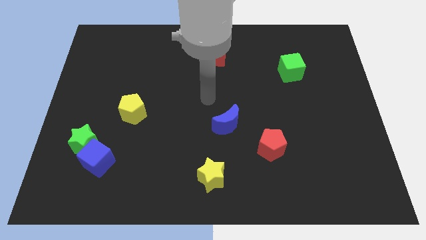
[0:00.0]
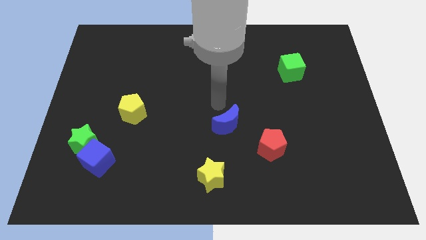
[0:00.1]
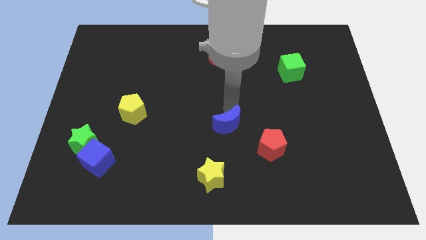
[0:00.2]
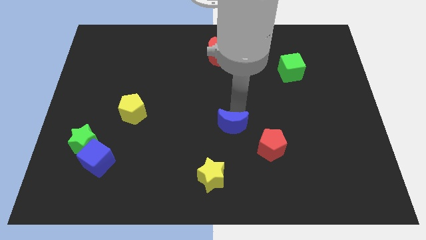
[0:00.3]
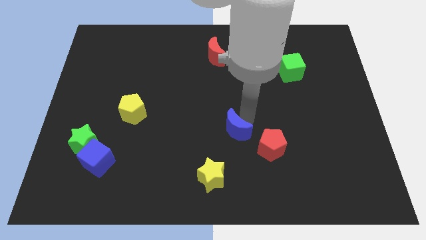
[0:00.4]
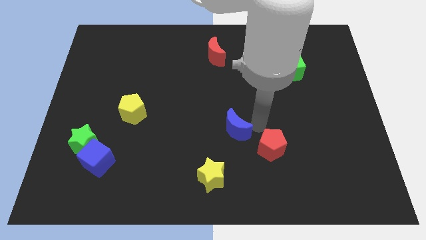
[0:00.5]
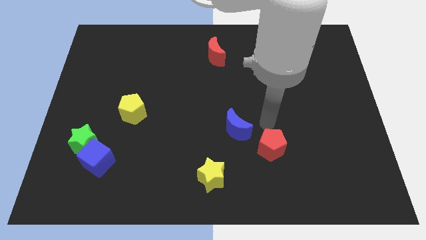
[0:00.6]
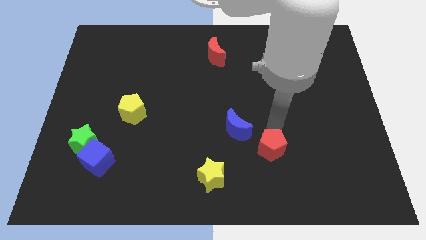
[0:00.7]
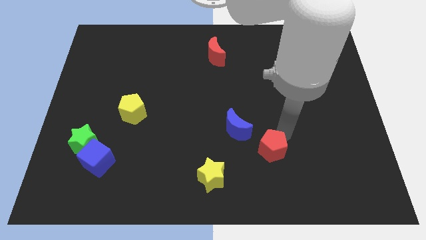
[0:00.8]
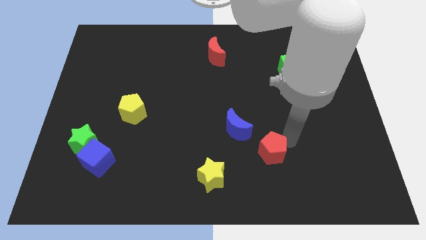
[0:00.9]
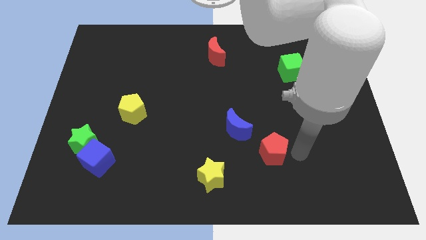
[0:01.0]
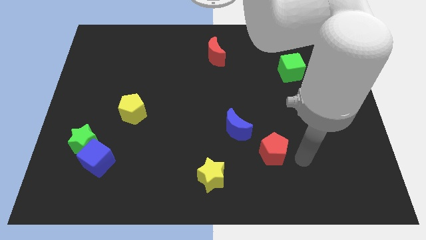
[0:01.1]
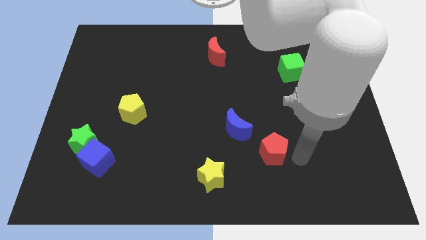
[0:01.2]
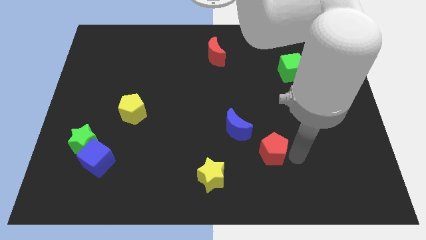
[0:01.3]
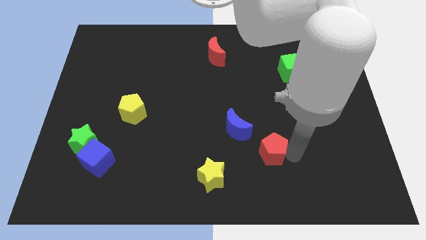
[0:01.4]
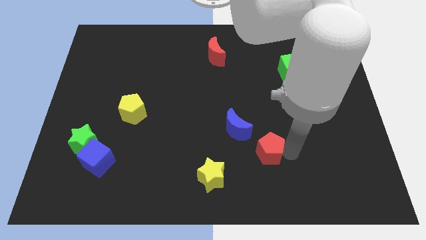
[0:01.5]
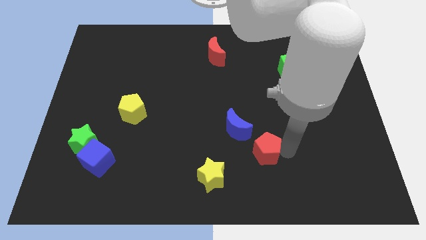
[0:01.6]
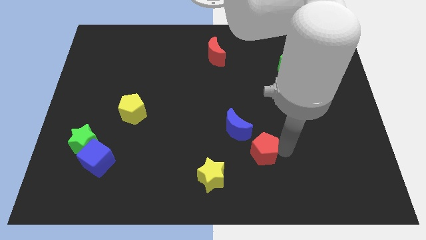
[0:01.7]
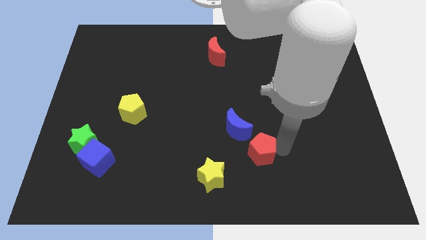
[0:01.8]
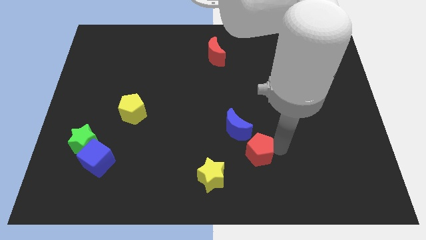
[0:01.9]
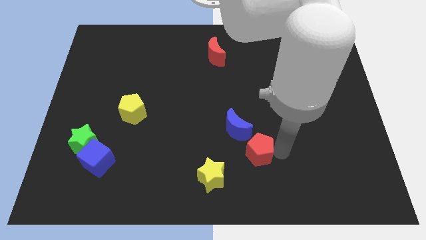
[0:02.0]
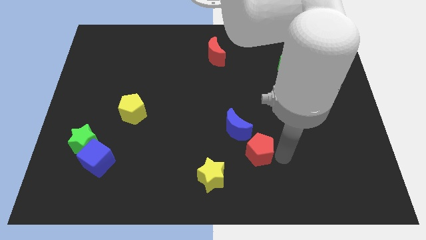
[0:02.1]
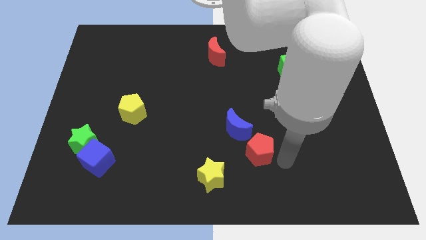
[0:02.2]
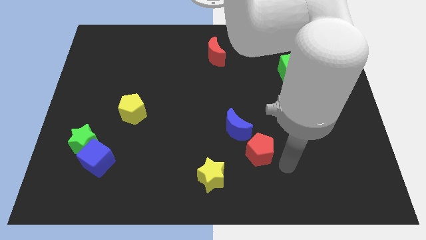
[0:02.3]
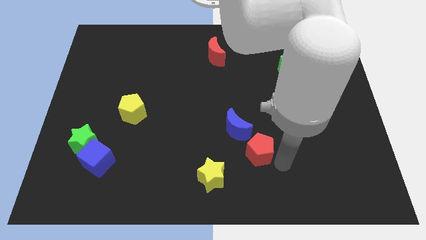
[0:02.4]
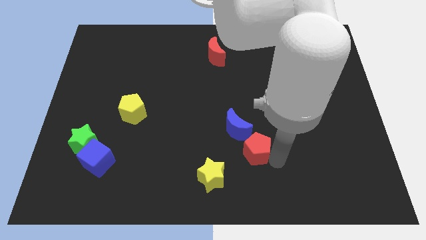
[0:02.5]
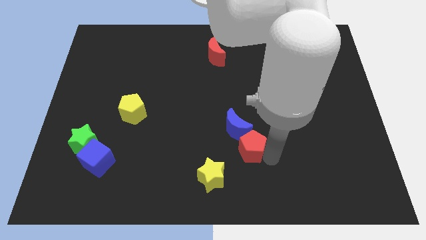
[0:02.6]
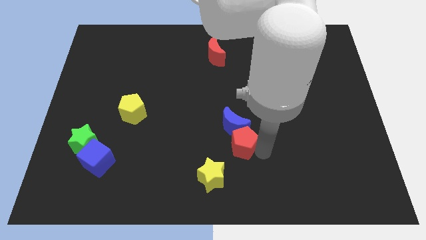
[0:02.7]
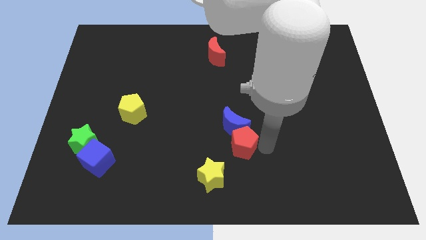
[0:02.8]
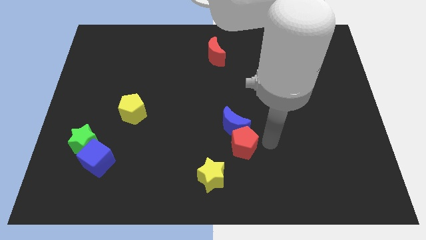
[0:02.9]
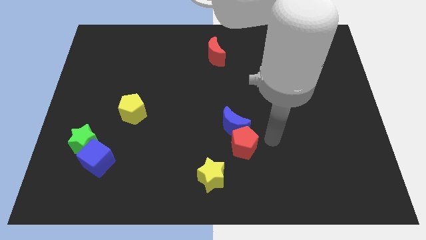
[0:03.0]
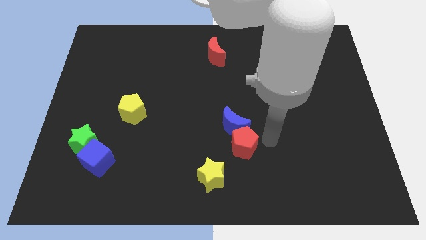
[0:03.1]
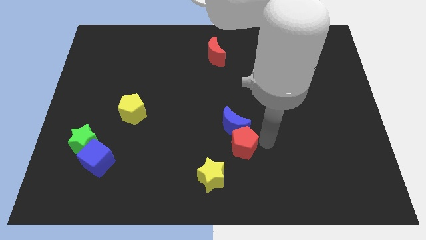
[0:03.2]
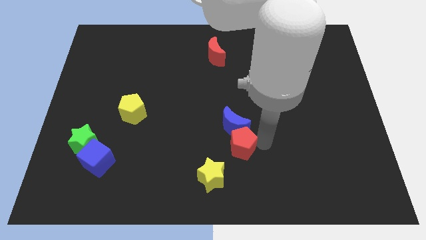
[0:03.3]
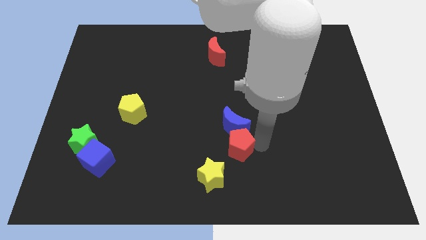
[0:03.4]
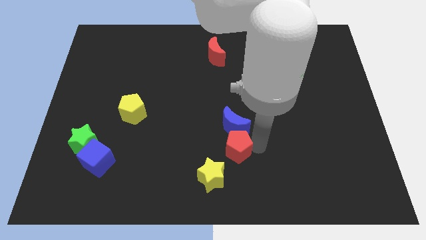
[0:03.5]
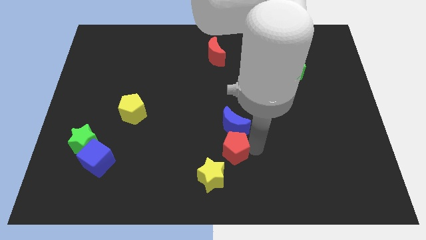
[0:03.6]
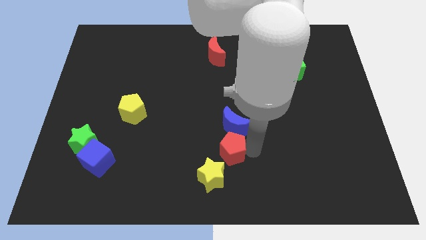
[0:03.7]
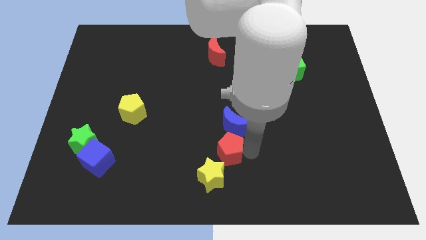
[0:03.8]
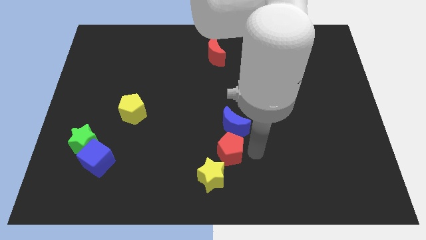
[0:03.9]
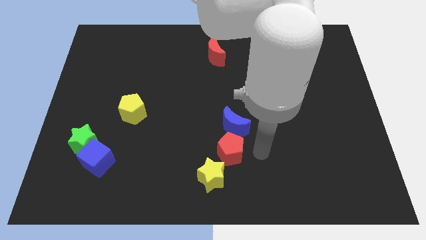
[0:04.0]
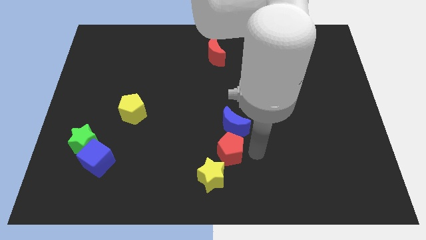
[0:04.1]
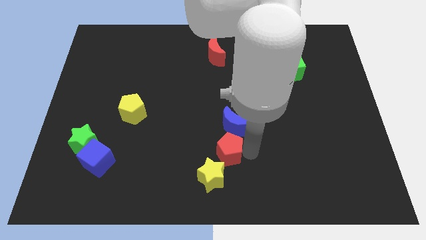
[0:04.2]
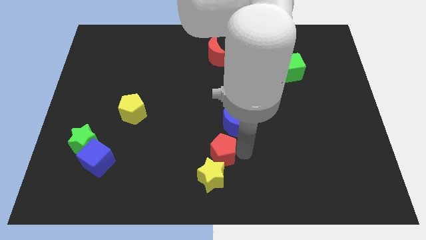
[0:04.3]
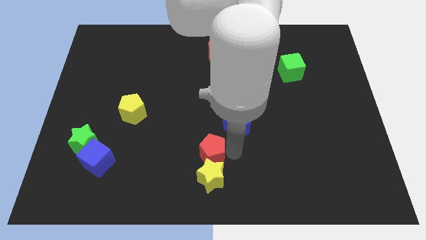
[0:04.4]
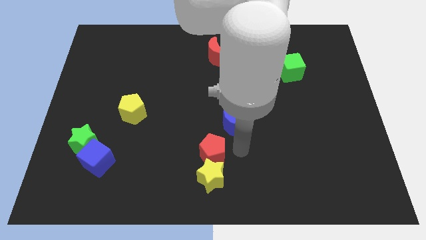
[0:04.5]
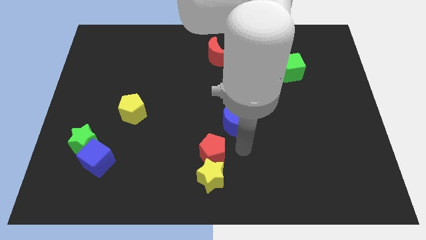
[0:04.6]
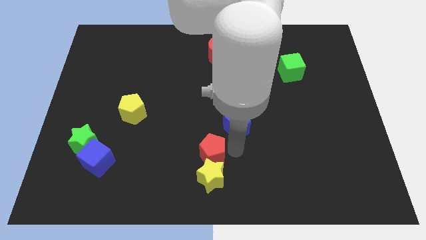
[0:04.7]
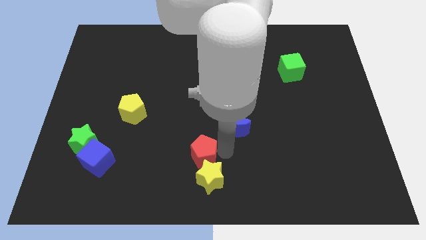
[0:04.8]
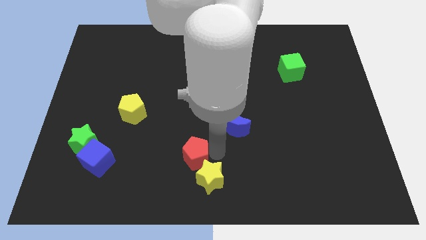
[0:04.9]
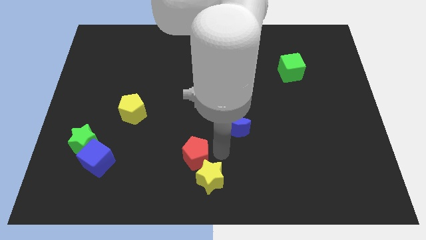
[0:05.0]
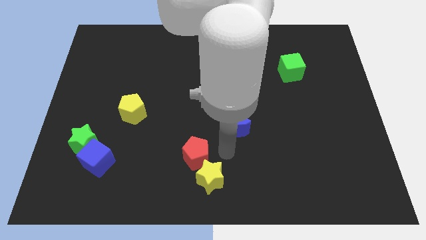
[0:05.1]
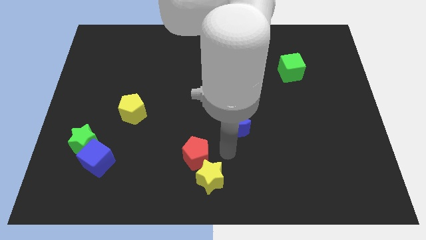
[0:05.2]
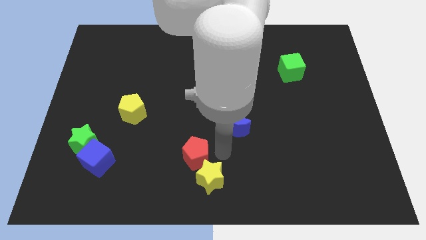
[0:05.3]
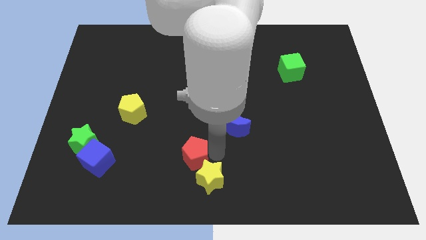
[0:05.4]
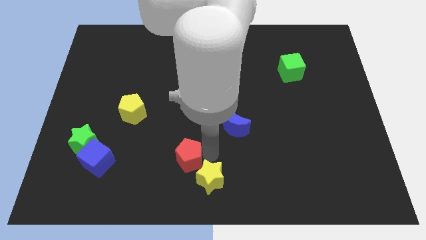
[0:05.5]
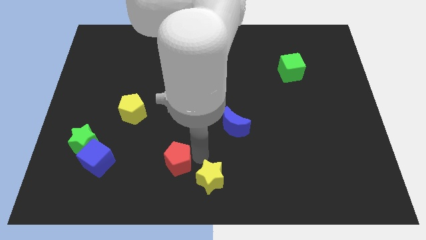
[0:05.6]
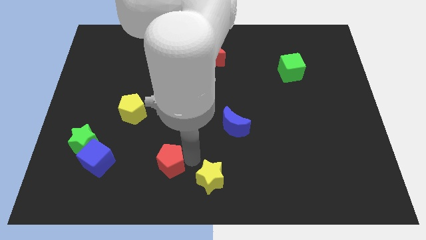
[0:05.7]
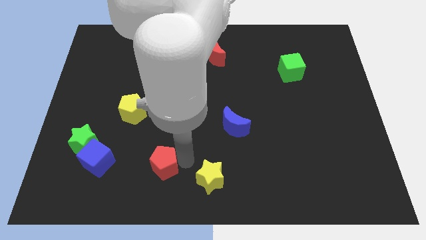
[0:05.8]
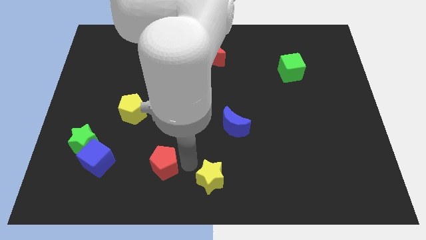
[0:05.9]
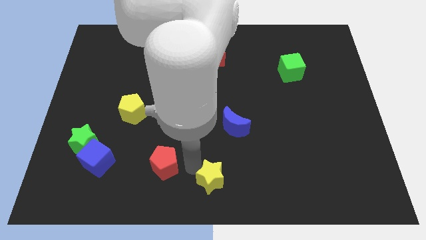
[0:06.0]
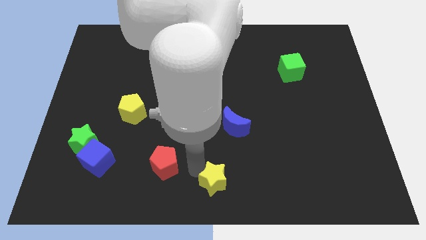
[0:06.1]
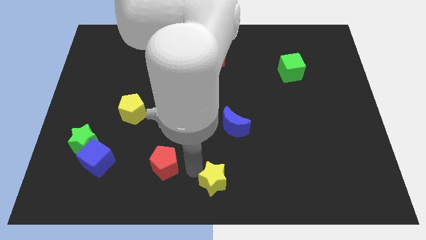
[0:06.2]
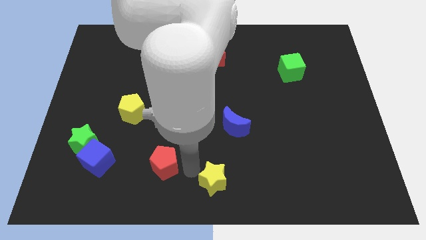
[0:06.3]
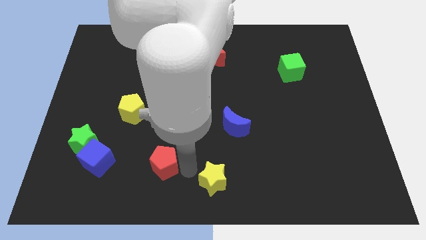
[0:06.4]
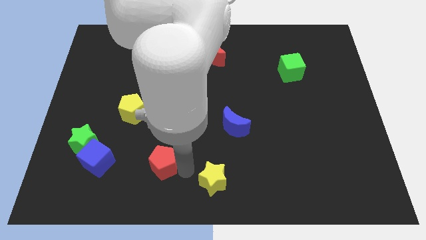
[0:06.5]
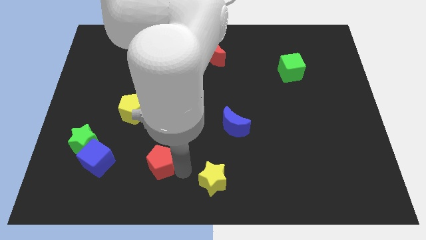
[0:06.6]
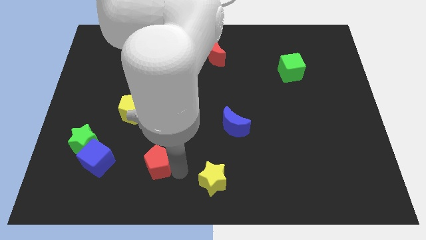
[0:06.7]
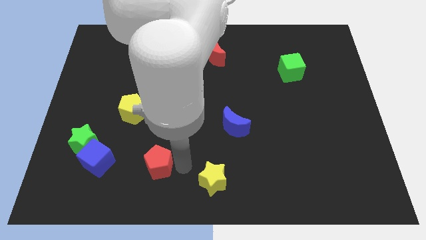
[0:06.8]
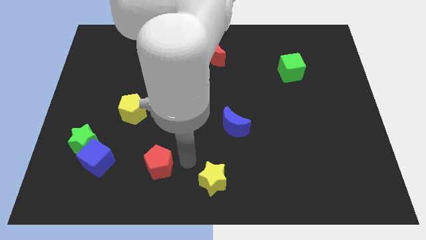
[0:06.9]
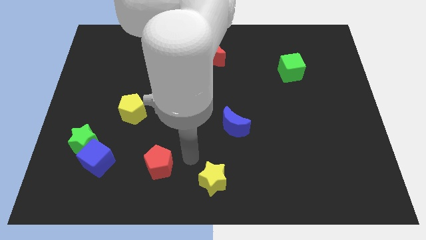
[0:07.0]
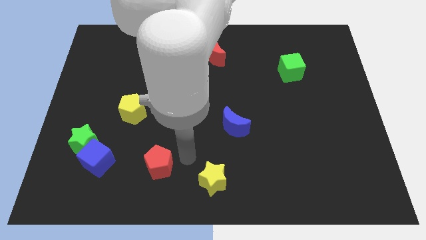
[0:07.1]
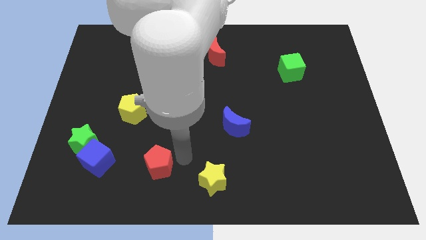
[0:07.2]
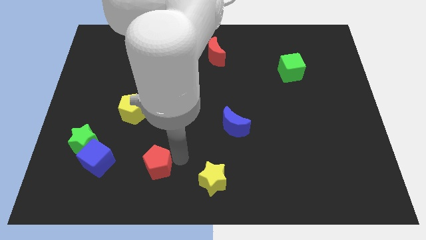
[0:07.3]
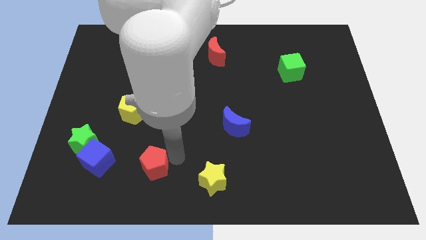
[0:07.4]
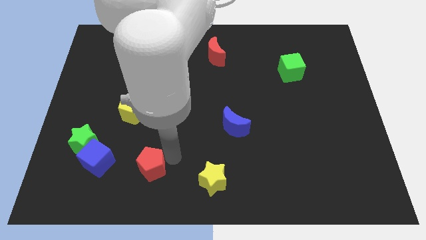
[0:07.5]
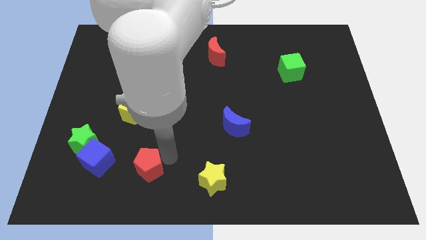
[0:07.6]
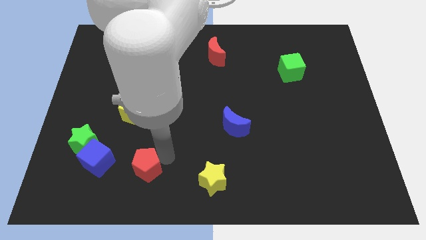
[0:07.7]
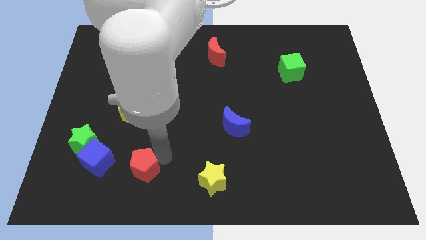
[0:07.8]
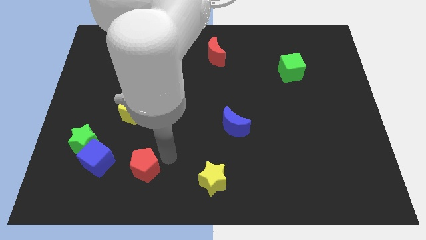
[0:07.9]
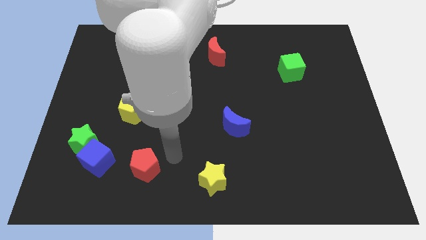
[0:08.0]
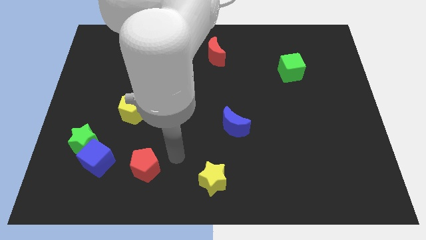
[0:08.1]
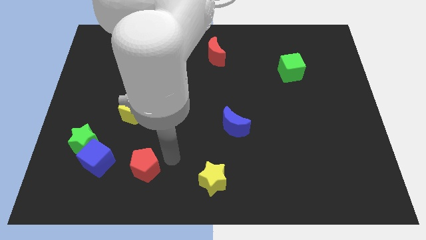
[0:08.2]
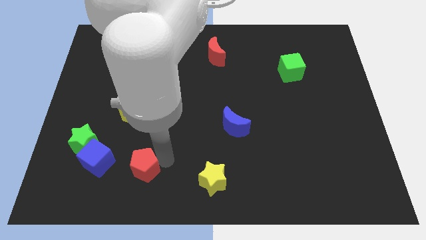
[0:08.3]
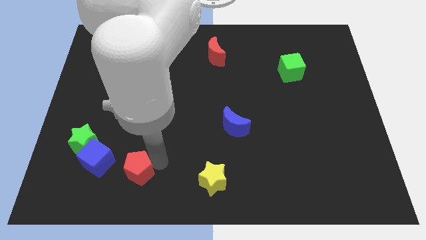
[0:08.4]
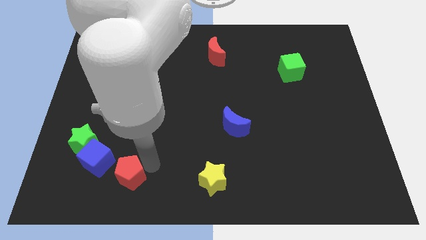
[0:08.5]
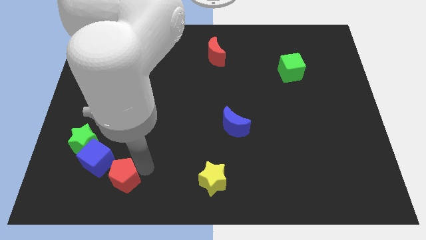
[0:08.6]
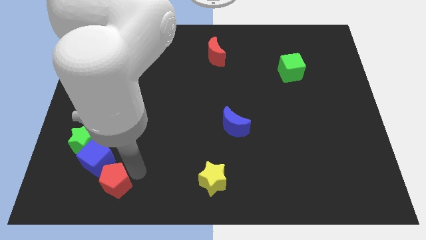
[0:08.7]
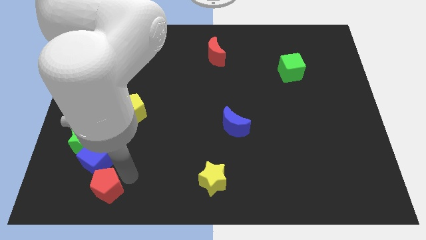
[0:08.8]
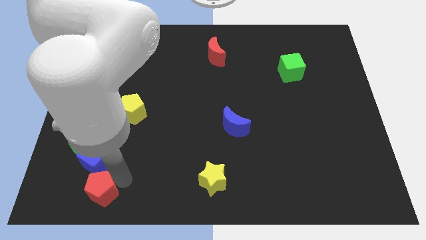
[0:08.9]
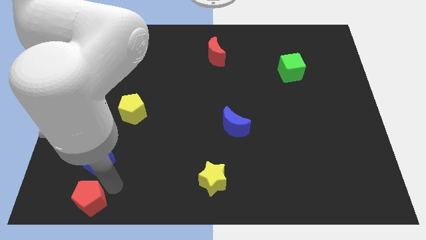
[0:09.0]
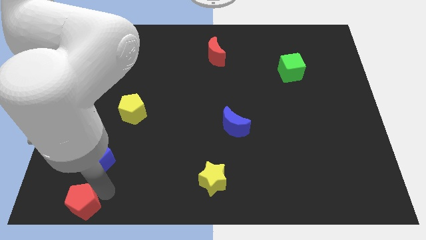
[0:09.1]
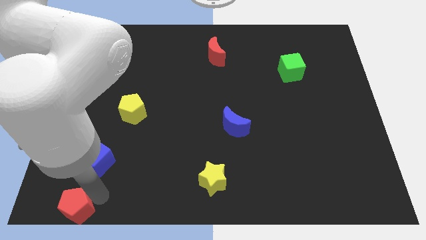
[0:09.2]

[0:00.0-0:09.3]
push the red pentagon to the bottom left
